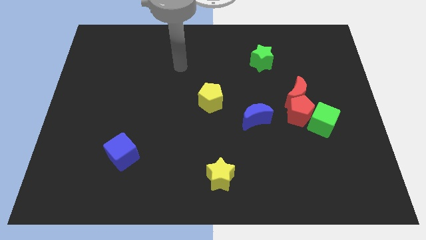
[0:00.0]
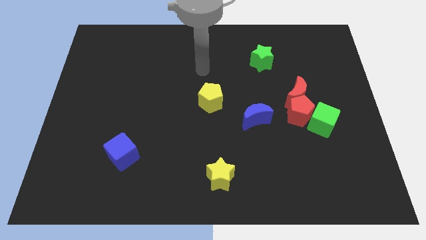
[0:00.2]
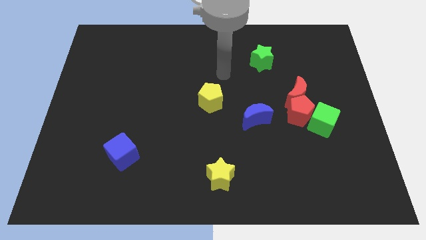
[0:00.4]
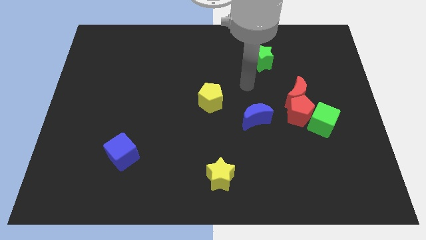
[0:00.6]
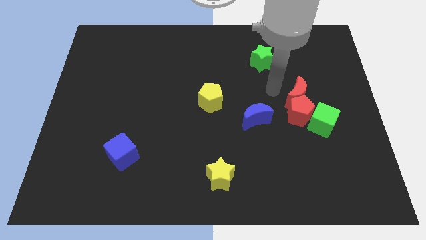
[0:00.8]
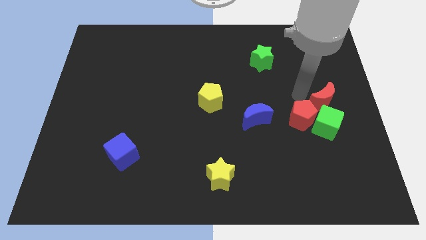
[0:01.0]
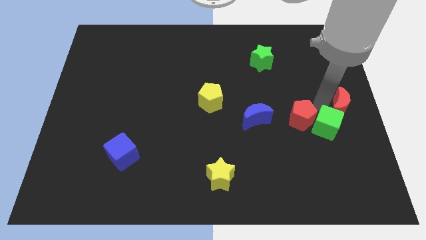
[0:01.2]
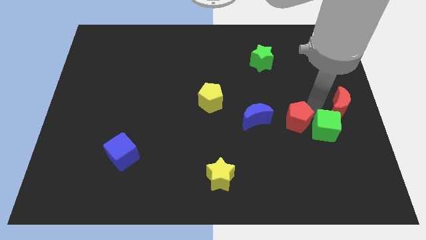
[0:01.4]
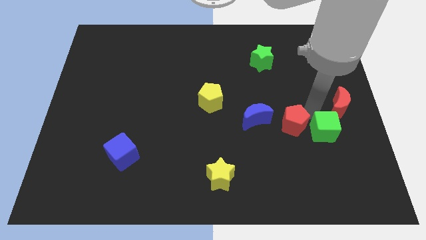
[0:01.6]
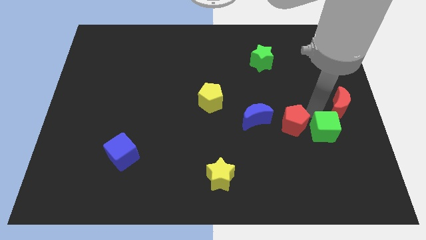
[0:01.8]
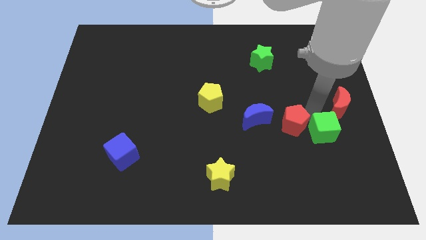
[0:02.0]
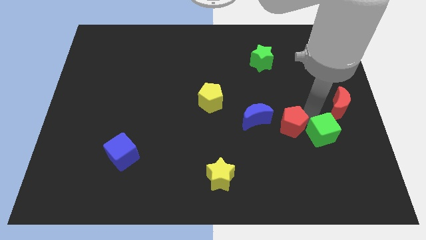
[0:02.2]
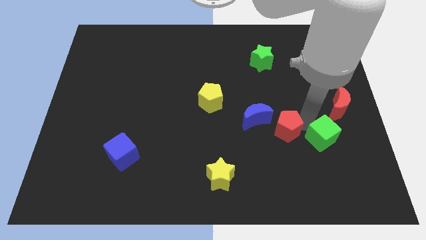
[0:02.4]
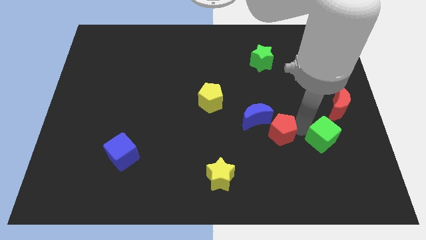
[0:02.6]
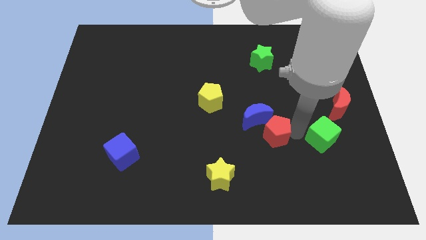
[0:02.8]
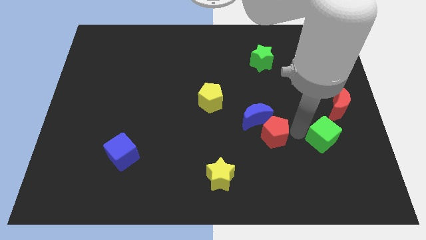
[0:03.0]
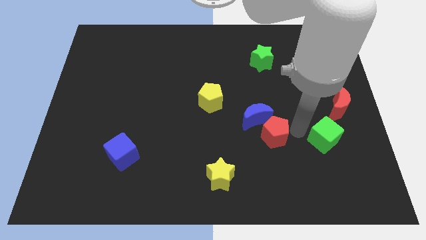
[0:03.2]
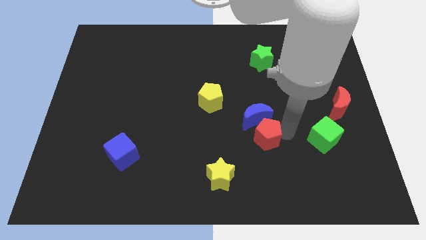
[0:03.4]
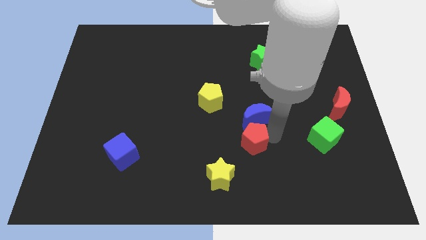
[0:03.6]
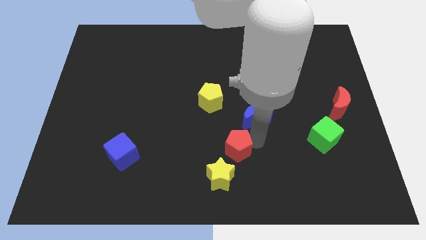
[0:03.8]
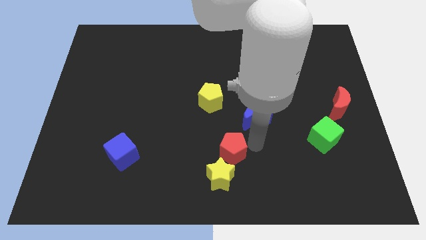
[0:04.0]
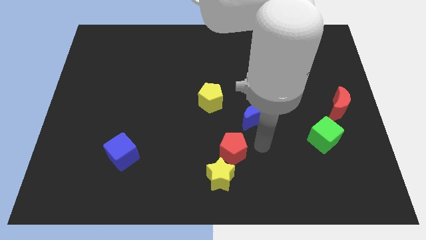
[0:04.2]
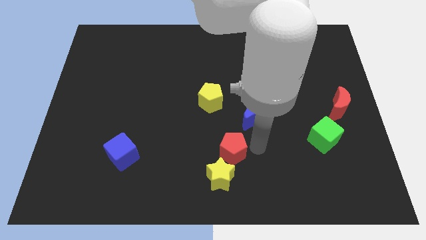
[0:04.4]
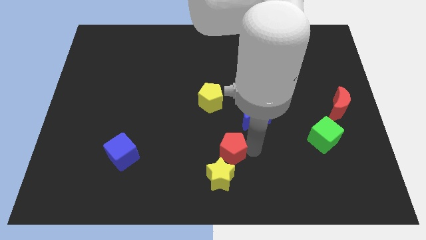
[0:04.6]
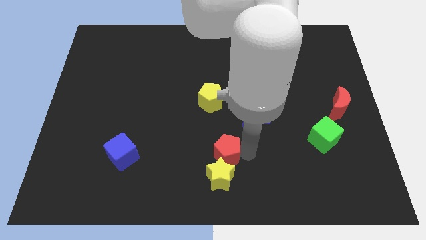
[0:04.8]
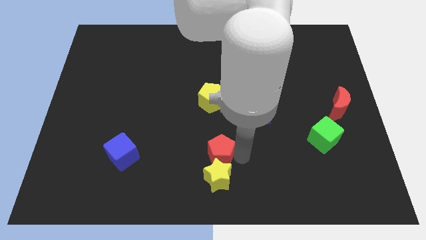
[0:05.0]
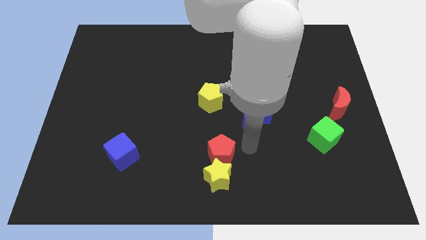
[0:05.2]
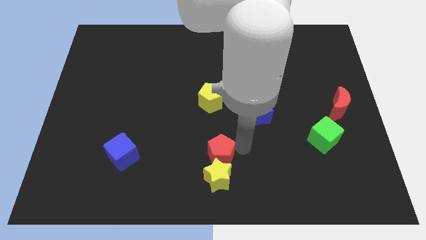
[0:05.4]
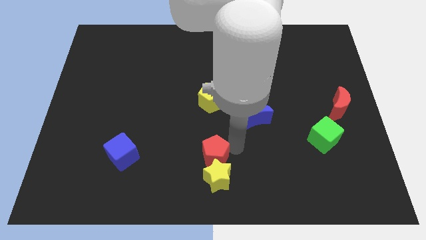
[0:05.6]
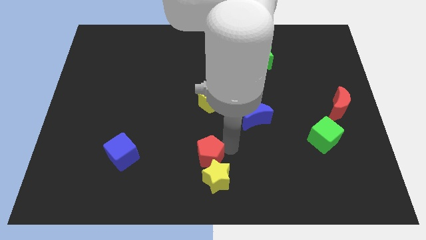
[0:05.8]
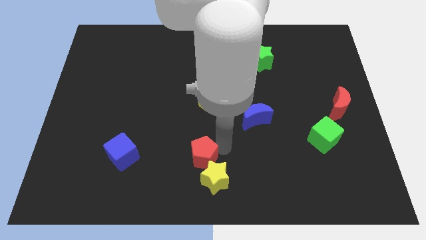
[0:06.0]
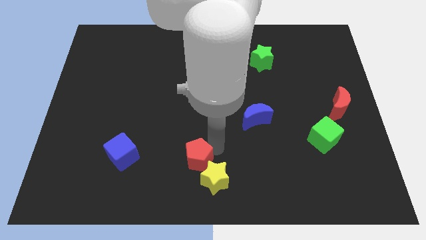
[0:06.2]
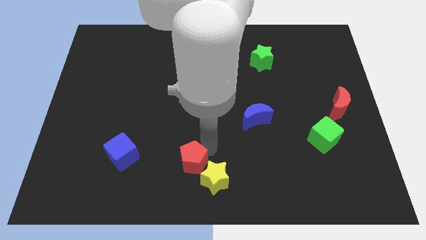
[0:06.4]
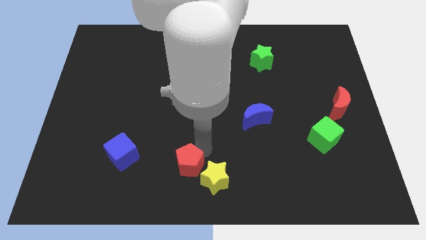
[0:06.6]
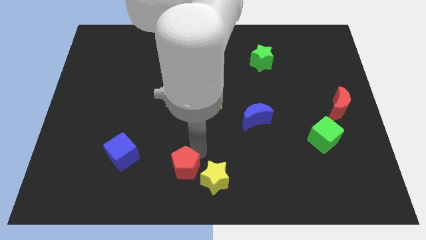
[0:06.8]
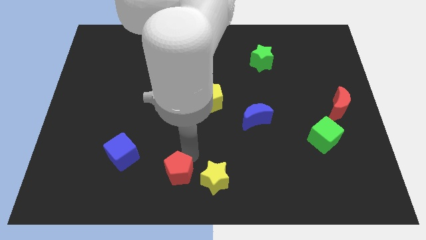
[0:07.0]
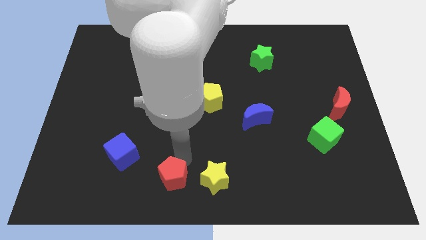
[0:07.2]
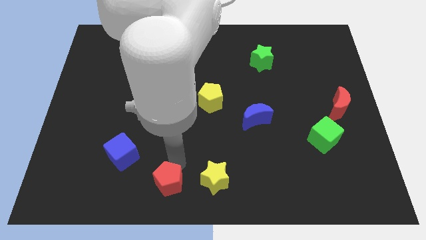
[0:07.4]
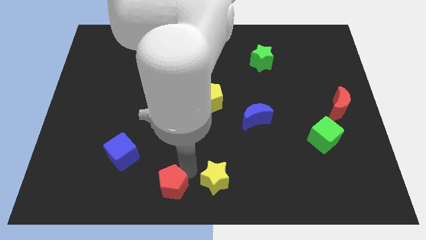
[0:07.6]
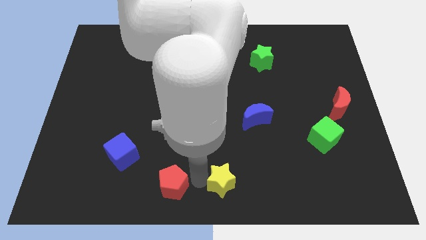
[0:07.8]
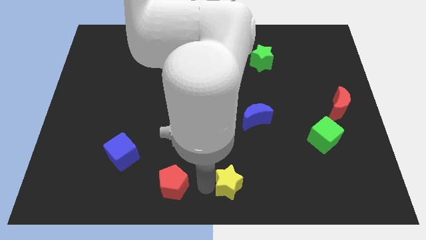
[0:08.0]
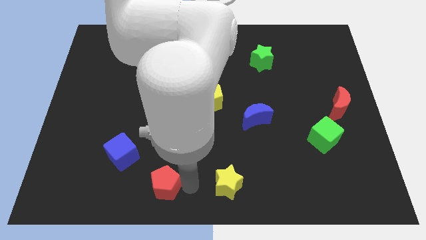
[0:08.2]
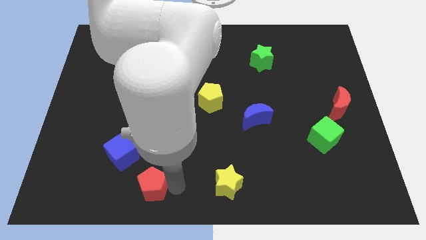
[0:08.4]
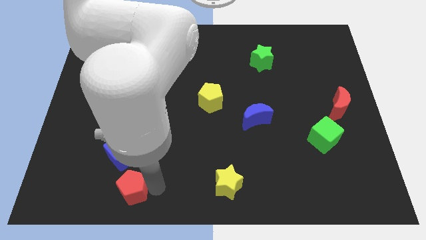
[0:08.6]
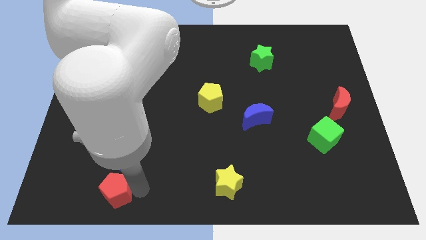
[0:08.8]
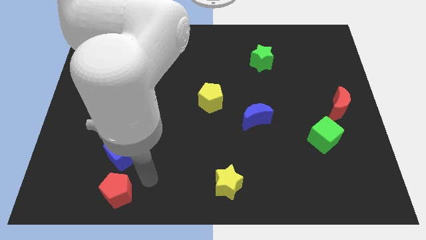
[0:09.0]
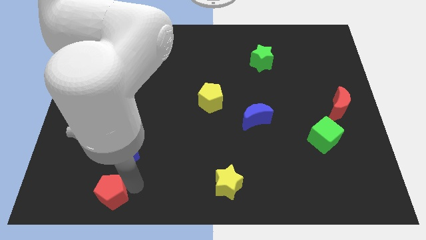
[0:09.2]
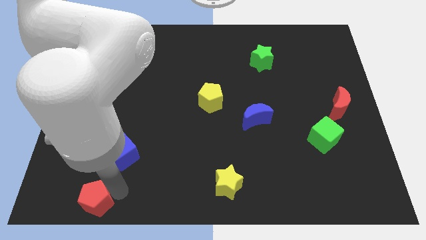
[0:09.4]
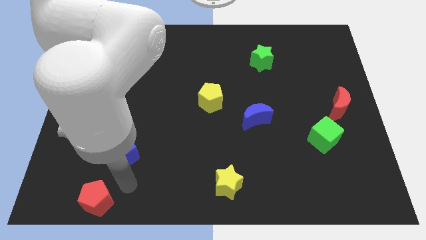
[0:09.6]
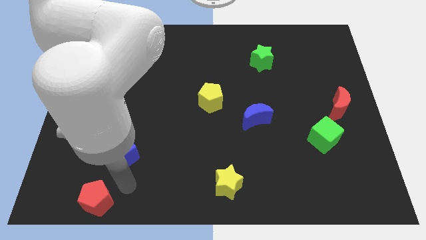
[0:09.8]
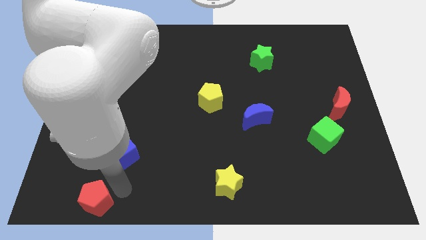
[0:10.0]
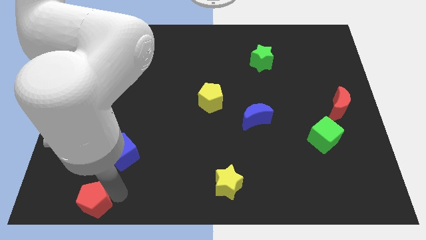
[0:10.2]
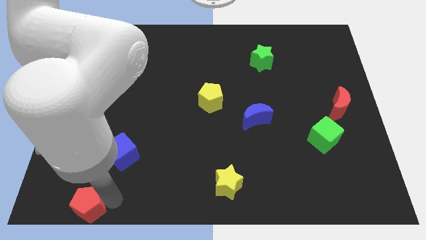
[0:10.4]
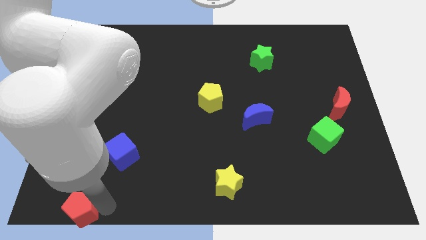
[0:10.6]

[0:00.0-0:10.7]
push the red pentagon to the bottom left of the board

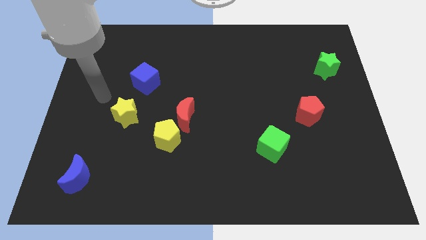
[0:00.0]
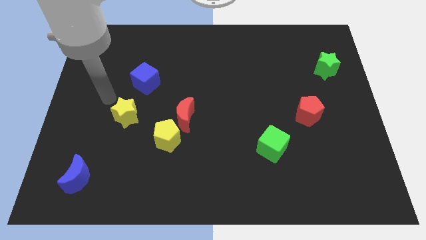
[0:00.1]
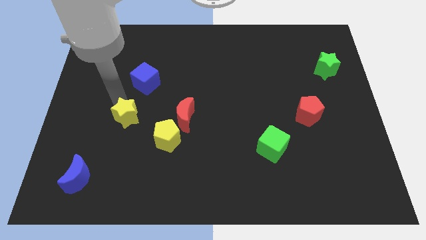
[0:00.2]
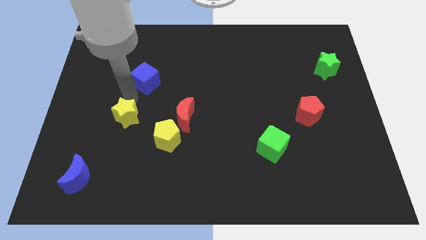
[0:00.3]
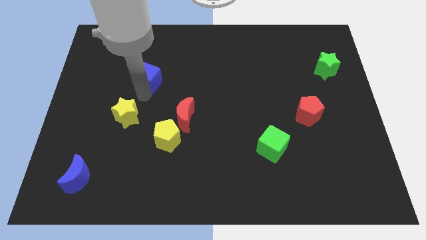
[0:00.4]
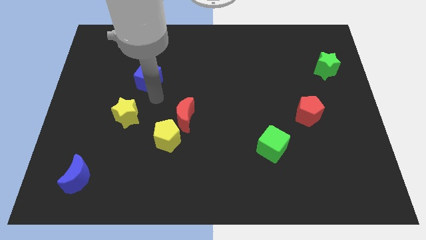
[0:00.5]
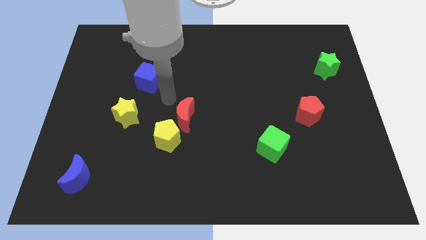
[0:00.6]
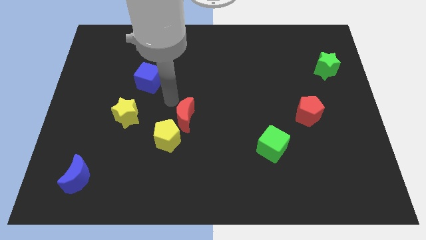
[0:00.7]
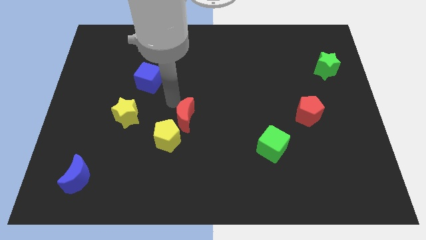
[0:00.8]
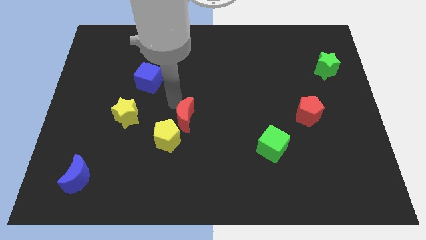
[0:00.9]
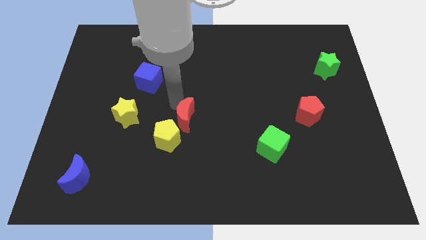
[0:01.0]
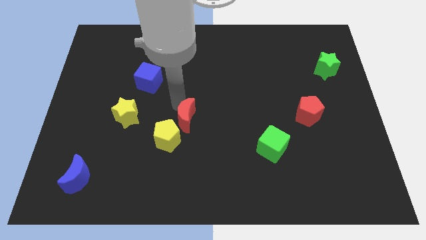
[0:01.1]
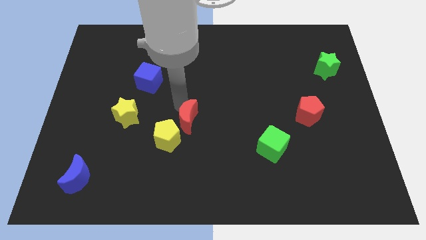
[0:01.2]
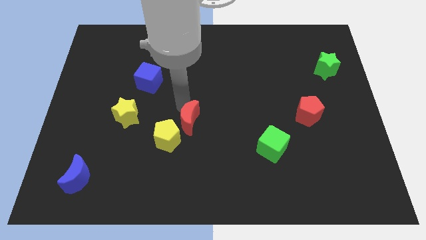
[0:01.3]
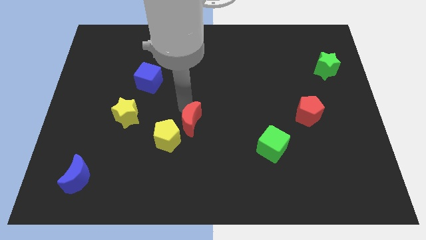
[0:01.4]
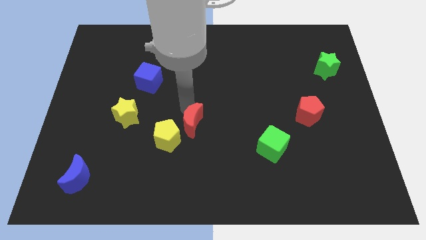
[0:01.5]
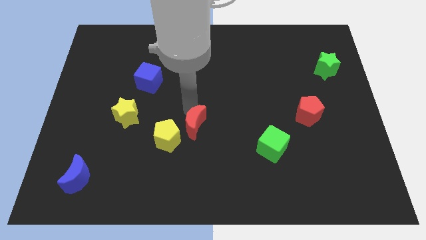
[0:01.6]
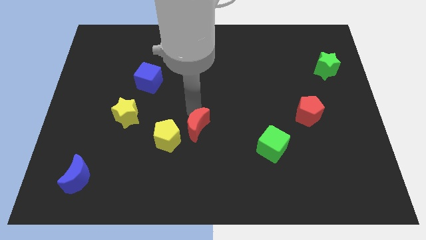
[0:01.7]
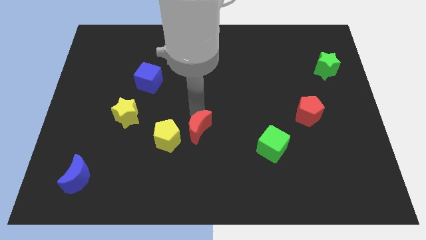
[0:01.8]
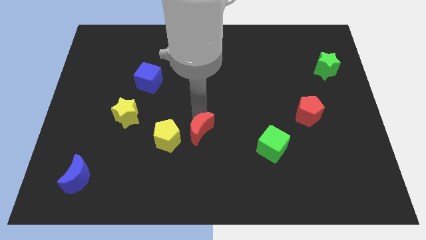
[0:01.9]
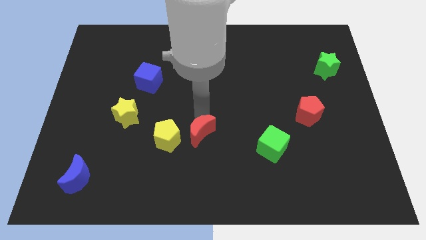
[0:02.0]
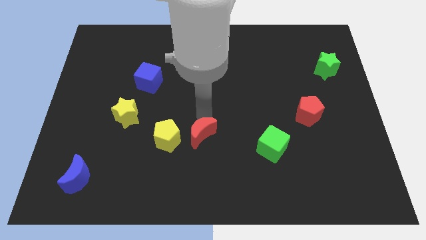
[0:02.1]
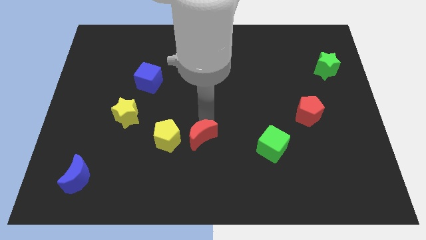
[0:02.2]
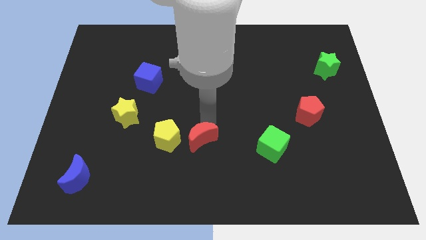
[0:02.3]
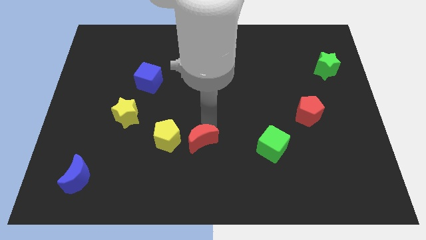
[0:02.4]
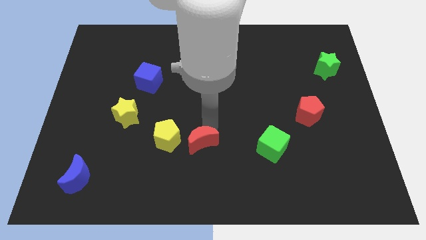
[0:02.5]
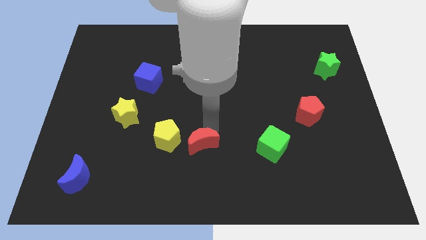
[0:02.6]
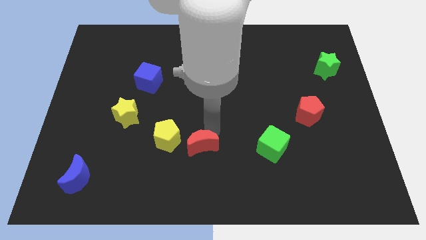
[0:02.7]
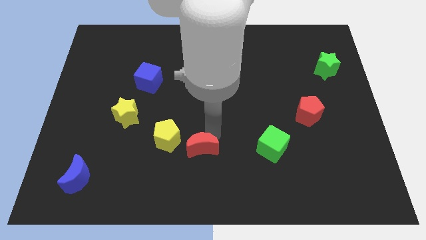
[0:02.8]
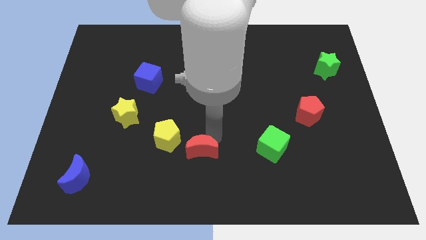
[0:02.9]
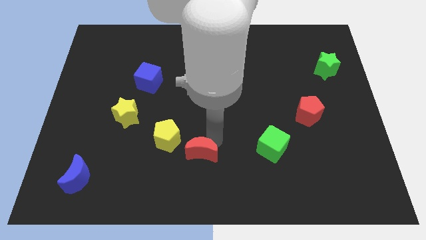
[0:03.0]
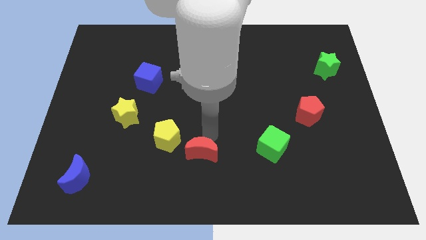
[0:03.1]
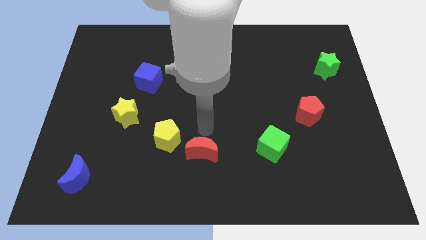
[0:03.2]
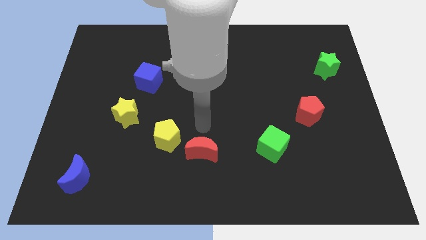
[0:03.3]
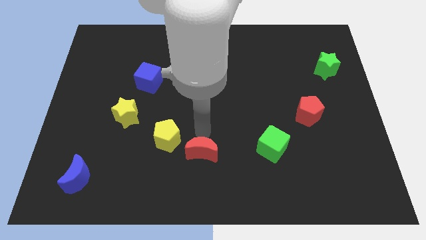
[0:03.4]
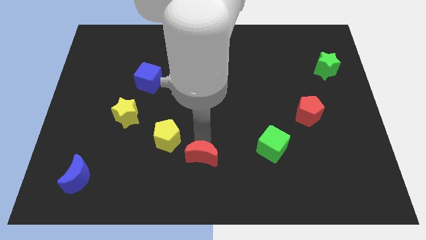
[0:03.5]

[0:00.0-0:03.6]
slide the red moon to the bottom
